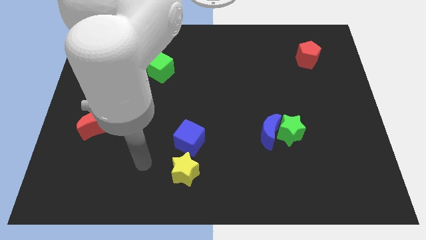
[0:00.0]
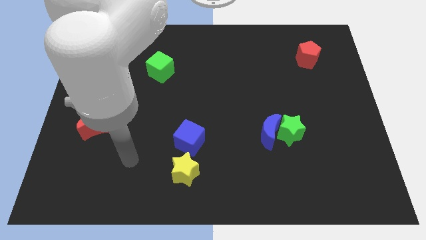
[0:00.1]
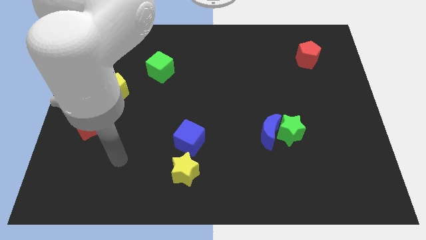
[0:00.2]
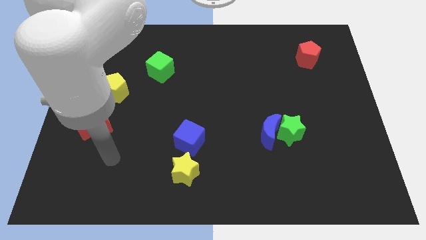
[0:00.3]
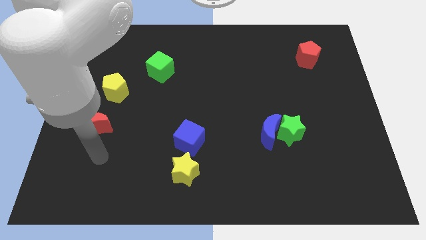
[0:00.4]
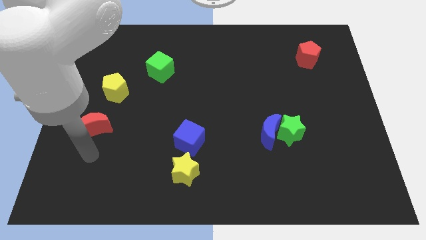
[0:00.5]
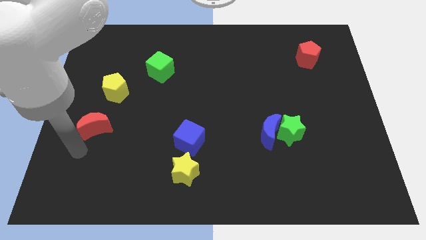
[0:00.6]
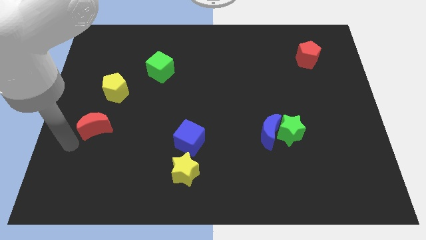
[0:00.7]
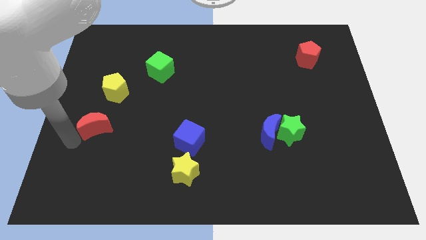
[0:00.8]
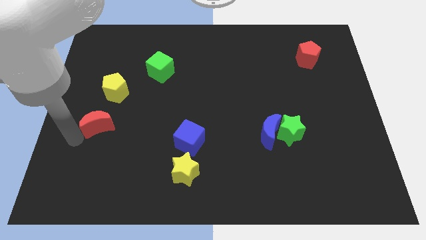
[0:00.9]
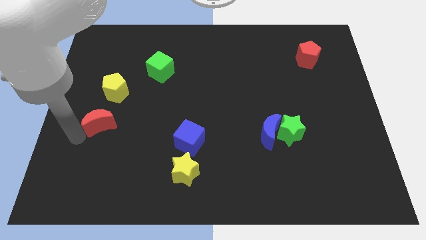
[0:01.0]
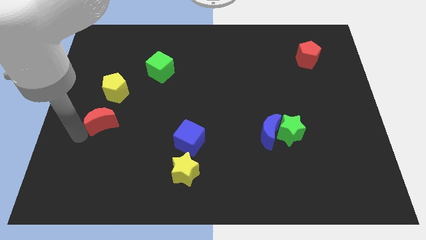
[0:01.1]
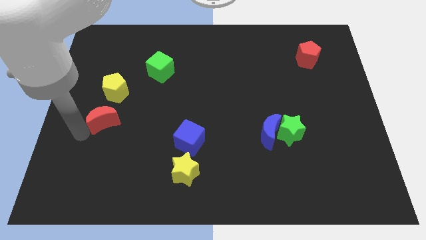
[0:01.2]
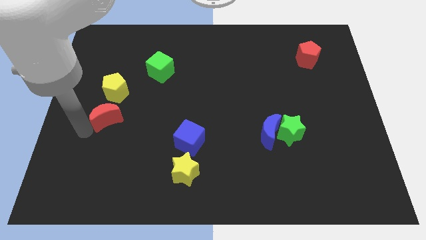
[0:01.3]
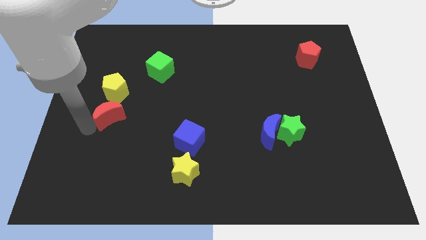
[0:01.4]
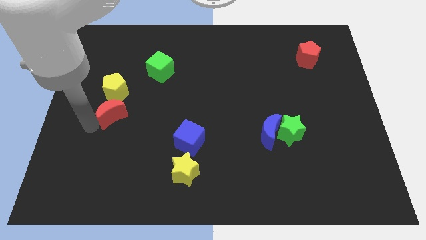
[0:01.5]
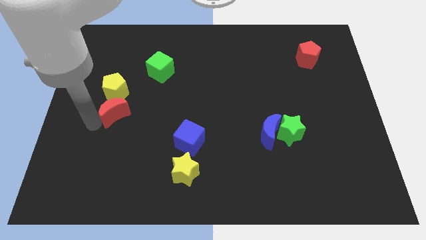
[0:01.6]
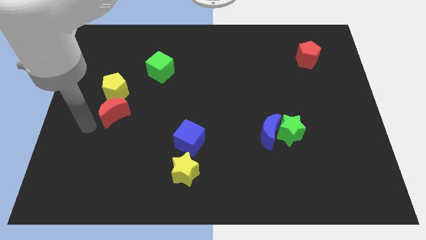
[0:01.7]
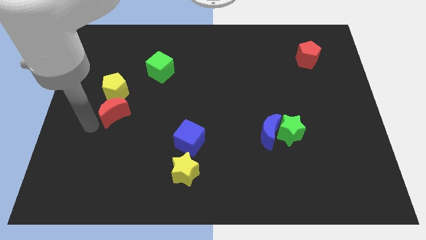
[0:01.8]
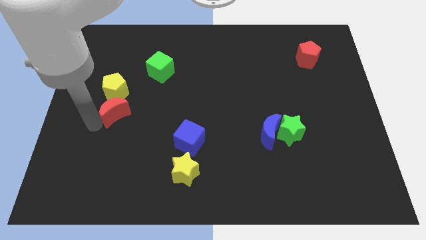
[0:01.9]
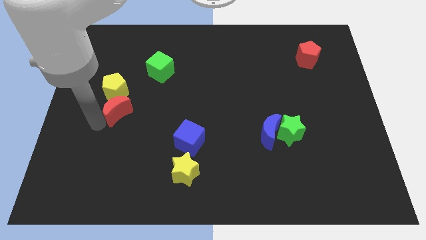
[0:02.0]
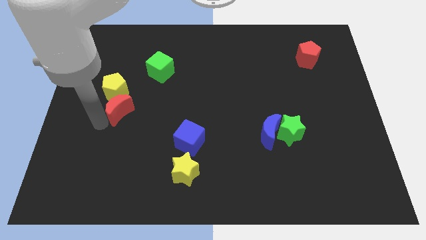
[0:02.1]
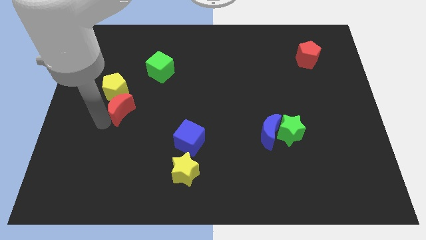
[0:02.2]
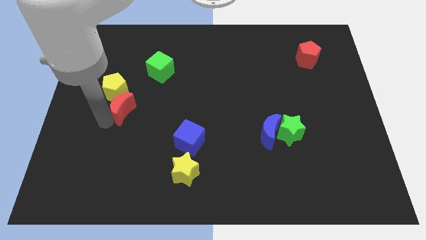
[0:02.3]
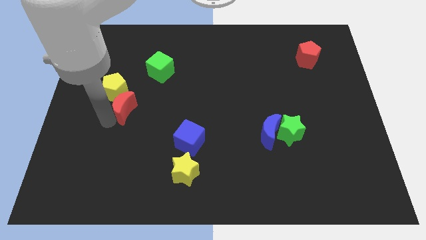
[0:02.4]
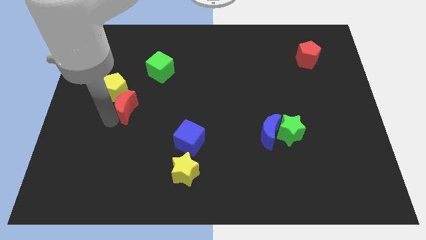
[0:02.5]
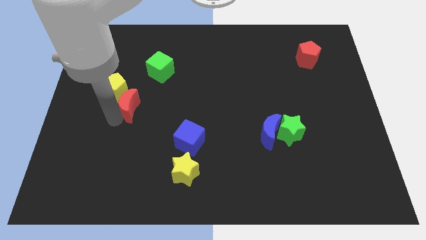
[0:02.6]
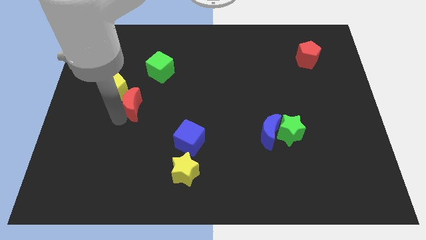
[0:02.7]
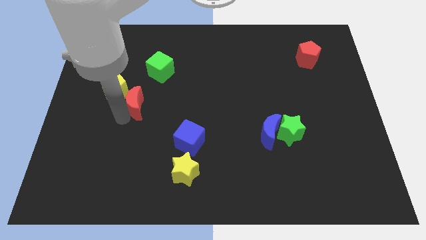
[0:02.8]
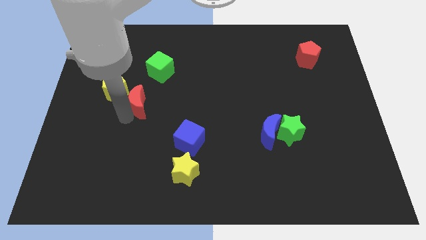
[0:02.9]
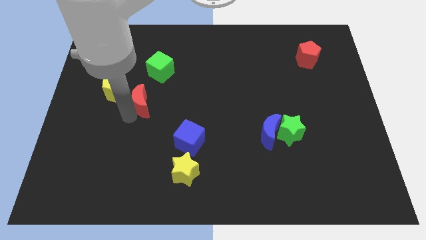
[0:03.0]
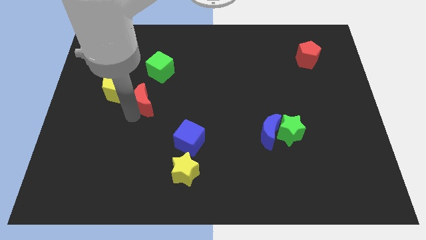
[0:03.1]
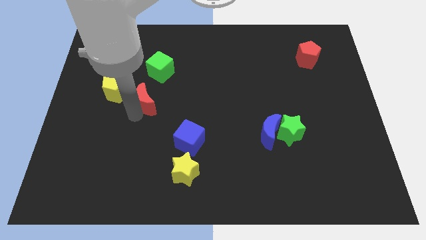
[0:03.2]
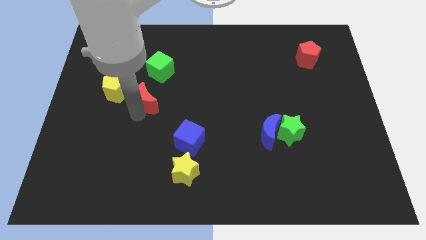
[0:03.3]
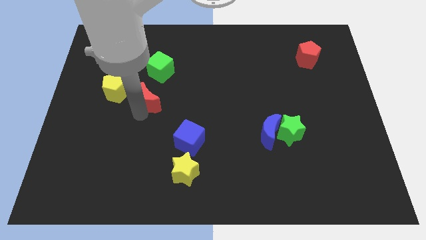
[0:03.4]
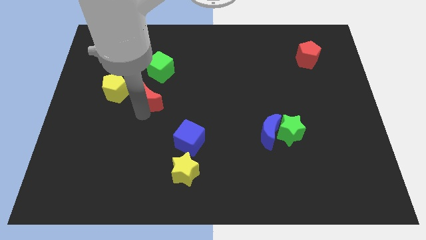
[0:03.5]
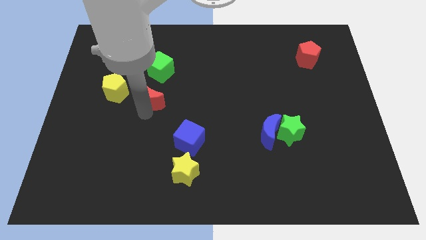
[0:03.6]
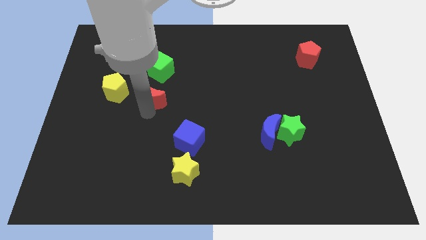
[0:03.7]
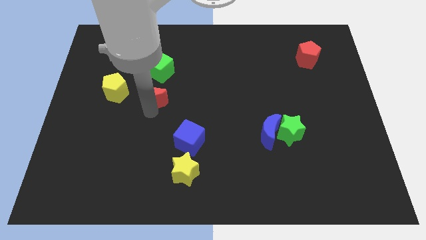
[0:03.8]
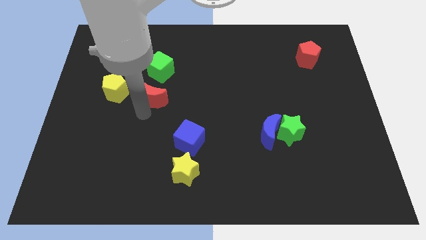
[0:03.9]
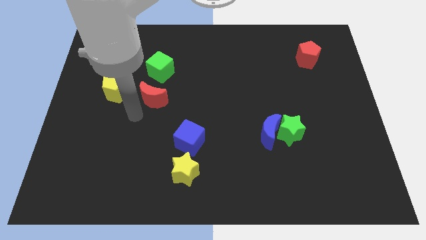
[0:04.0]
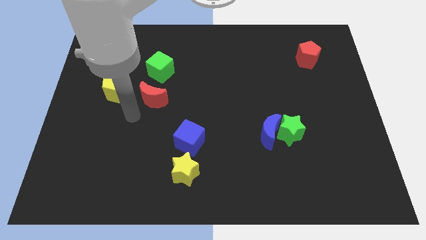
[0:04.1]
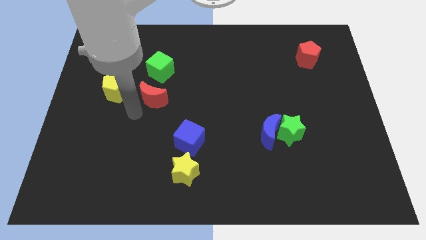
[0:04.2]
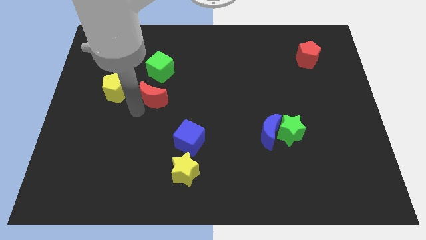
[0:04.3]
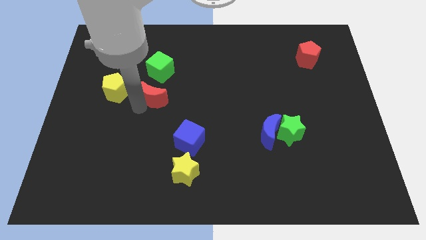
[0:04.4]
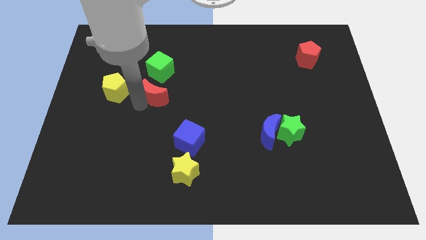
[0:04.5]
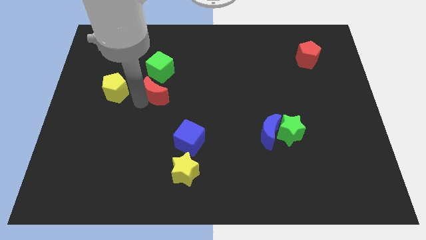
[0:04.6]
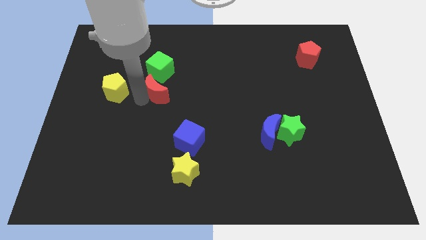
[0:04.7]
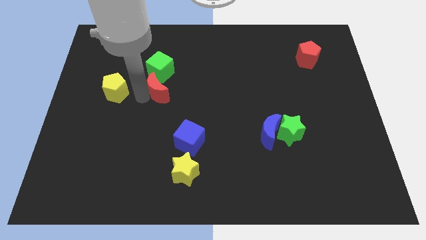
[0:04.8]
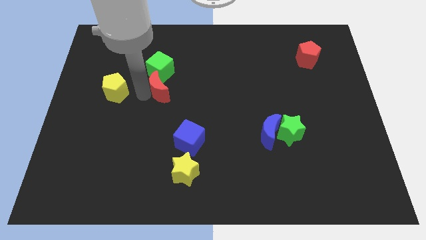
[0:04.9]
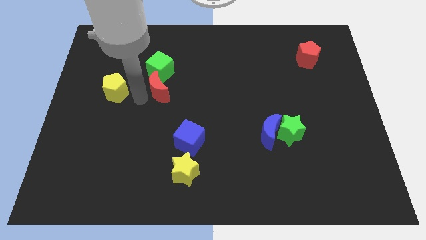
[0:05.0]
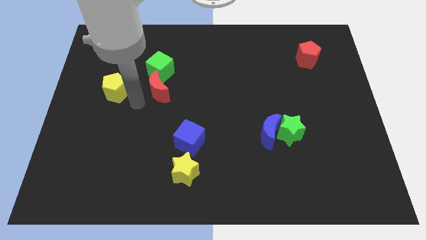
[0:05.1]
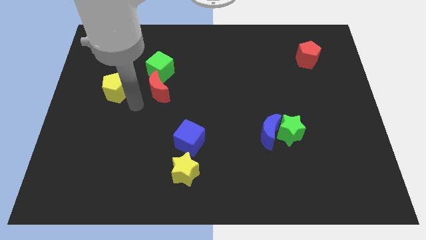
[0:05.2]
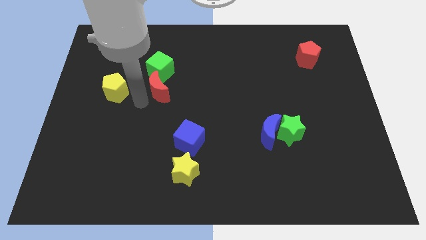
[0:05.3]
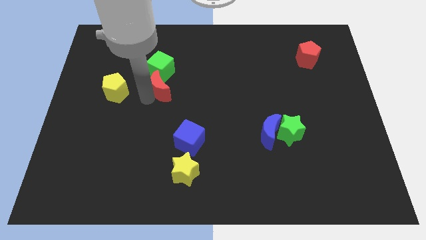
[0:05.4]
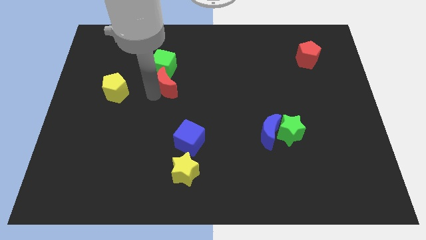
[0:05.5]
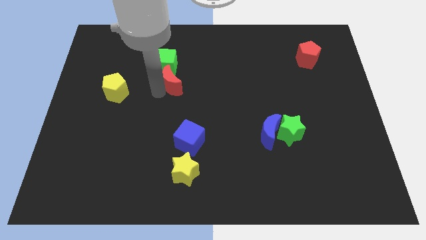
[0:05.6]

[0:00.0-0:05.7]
push the red moon up and then to the right

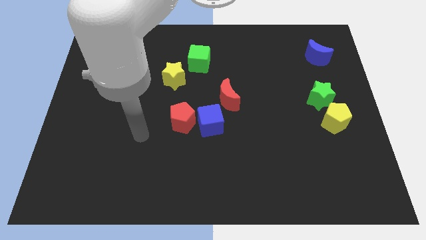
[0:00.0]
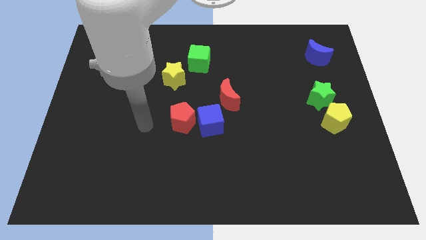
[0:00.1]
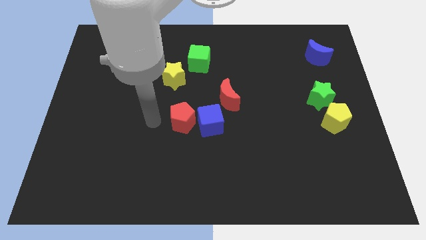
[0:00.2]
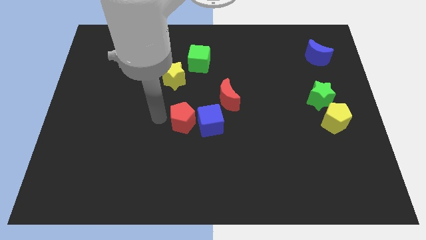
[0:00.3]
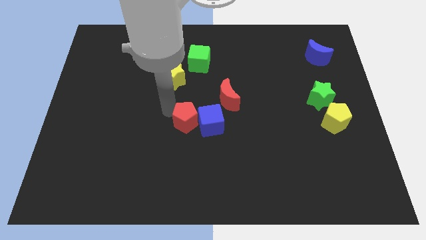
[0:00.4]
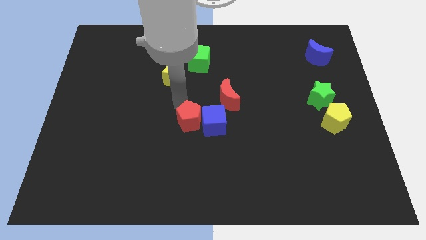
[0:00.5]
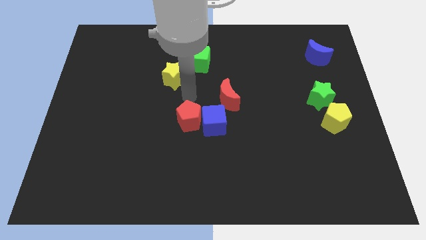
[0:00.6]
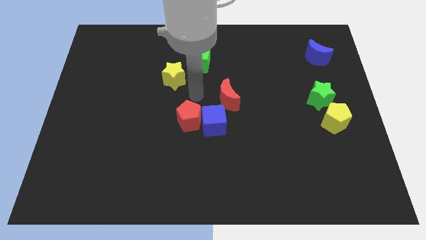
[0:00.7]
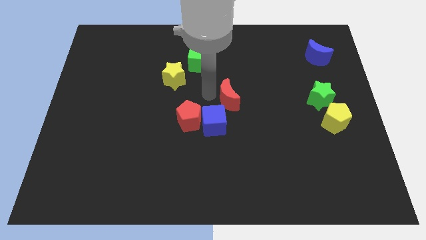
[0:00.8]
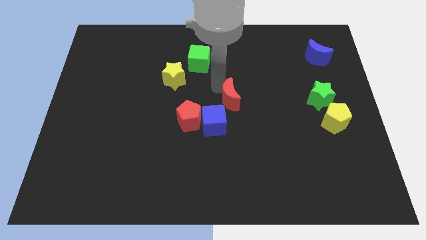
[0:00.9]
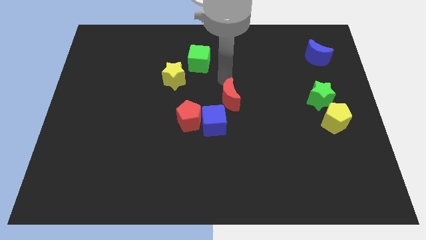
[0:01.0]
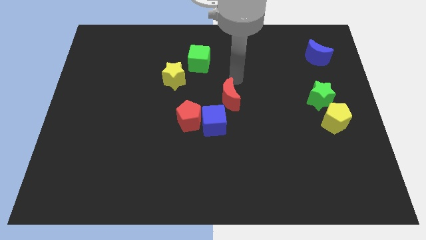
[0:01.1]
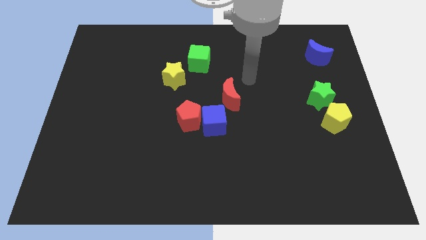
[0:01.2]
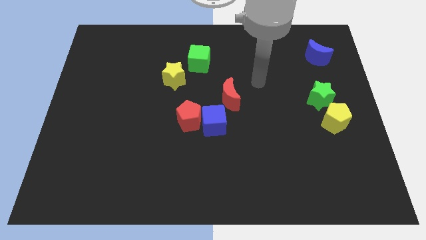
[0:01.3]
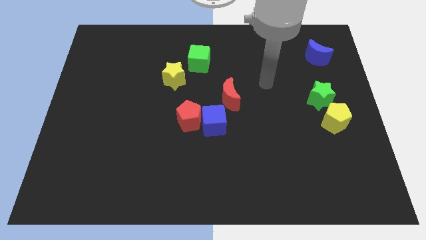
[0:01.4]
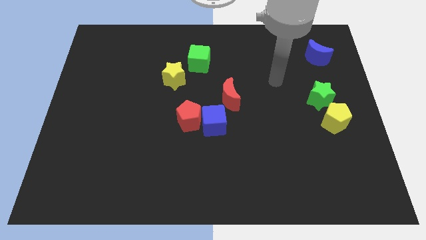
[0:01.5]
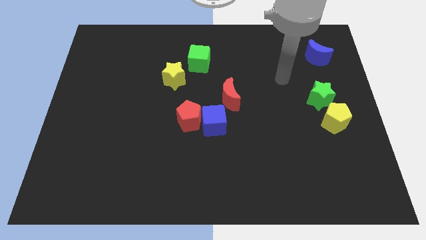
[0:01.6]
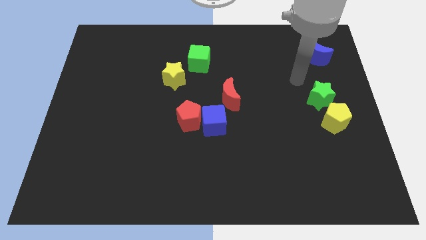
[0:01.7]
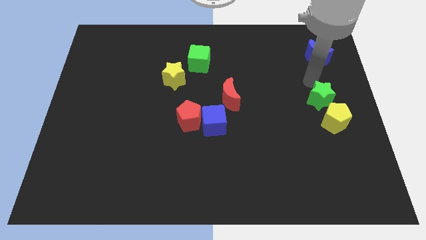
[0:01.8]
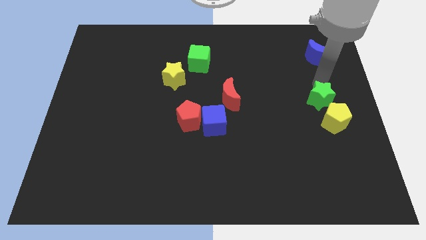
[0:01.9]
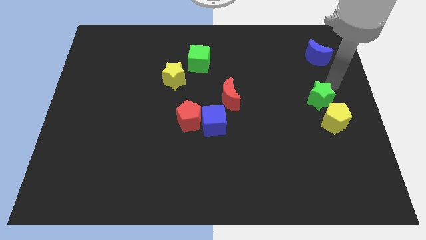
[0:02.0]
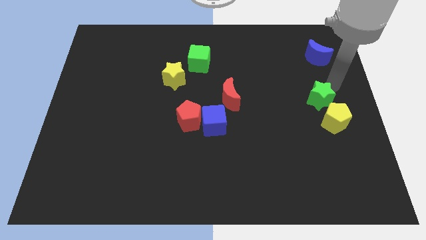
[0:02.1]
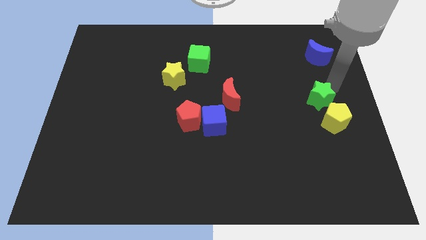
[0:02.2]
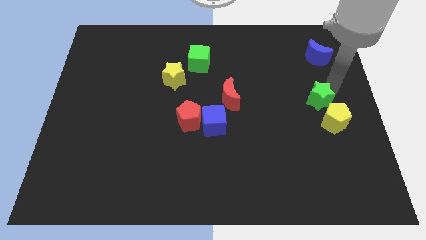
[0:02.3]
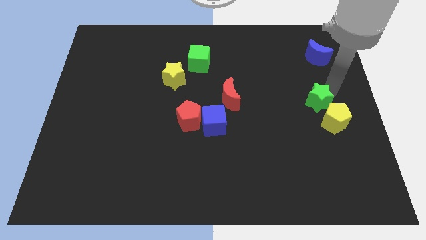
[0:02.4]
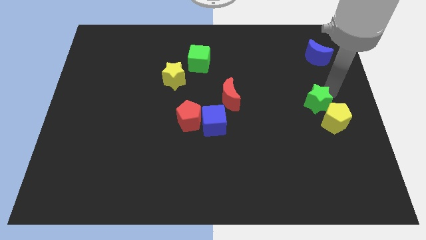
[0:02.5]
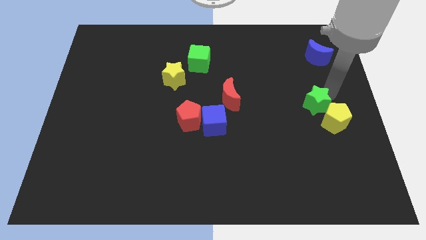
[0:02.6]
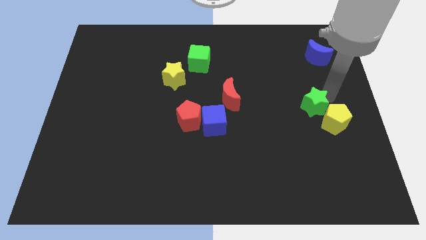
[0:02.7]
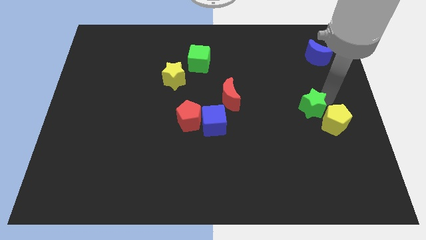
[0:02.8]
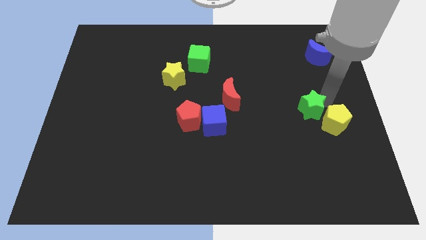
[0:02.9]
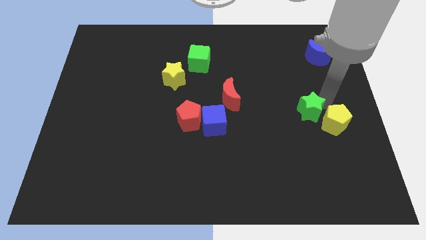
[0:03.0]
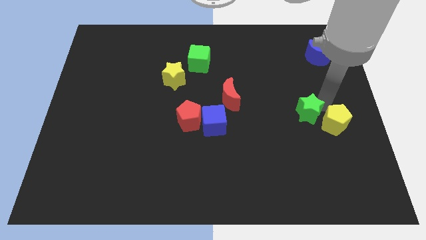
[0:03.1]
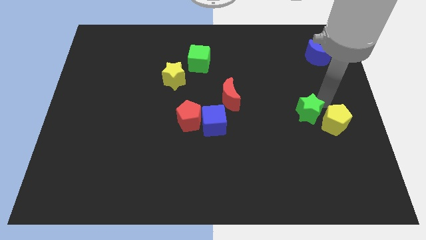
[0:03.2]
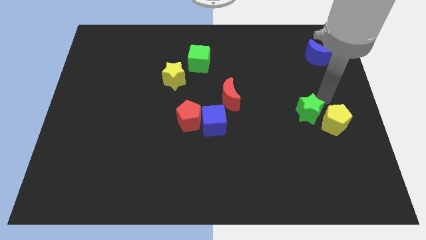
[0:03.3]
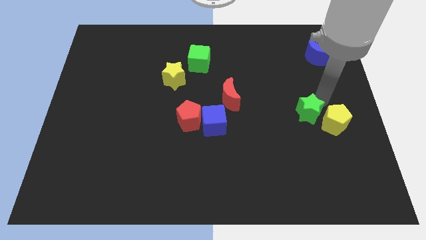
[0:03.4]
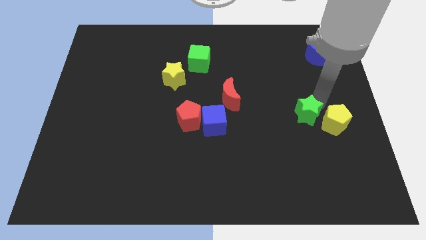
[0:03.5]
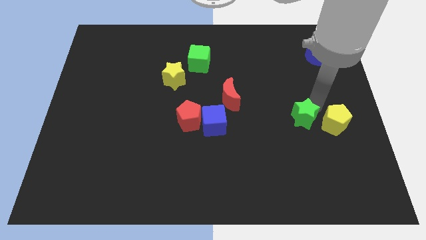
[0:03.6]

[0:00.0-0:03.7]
move the green star downwards and then to the left a bit
